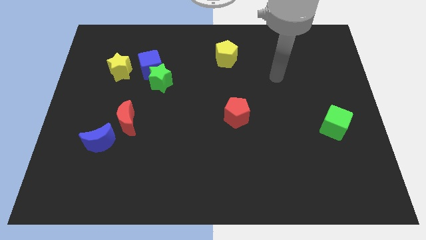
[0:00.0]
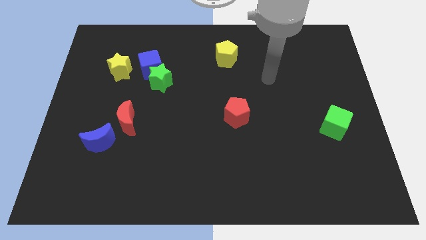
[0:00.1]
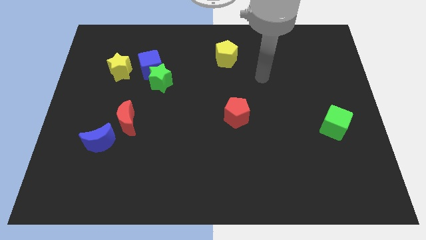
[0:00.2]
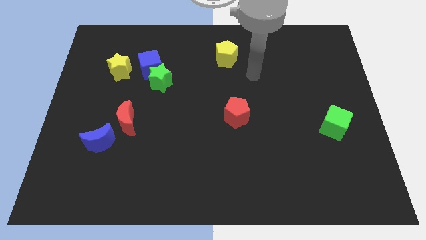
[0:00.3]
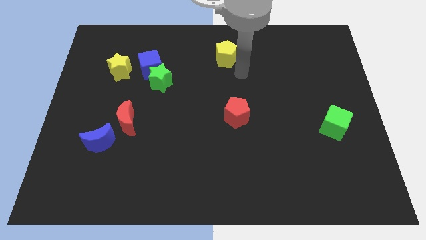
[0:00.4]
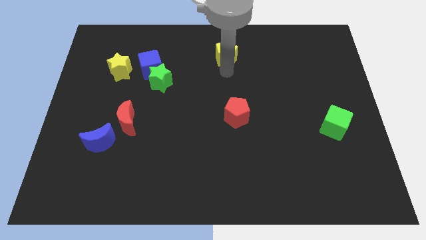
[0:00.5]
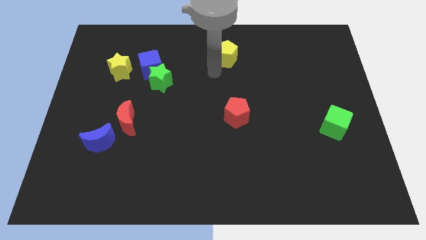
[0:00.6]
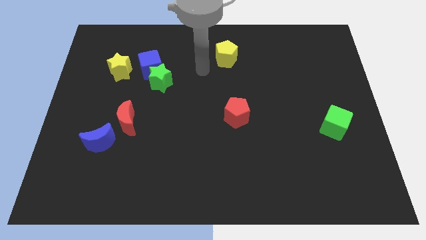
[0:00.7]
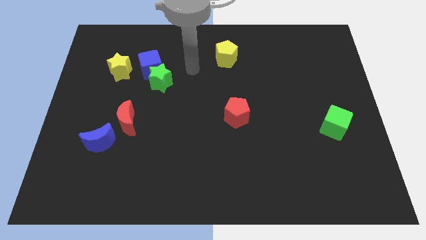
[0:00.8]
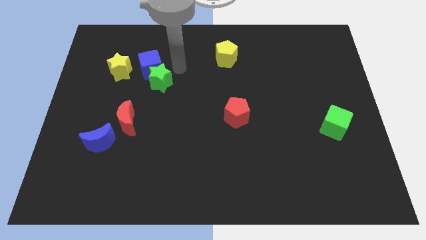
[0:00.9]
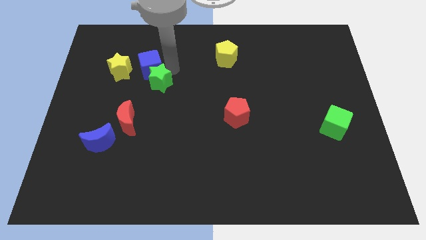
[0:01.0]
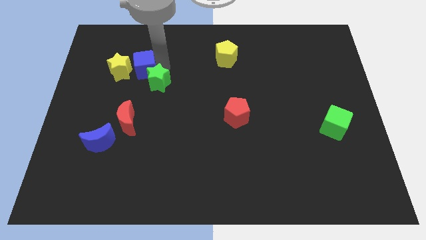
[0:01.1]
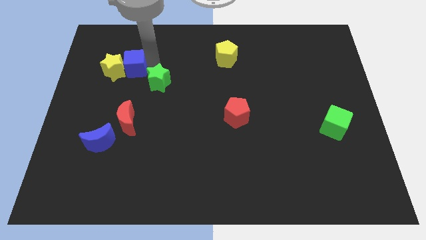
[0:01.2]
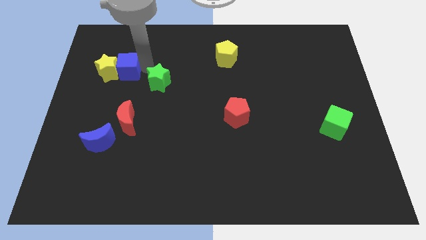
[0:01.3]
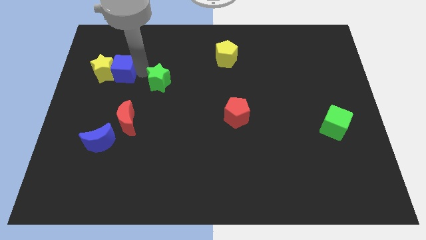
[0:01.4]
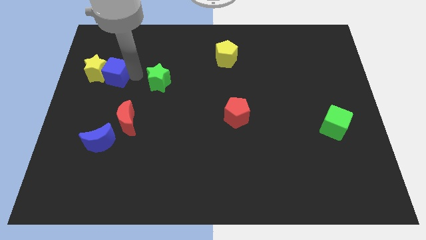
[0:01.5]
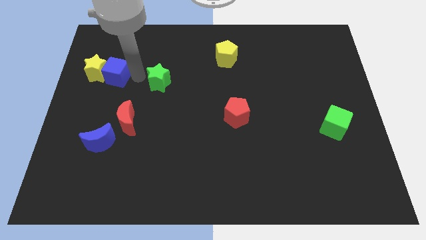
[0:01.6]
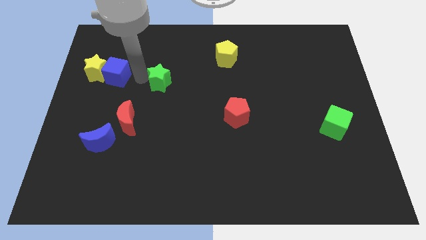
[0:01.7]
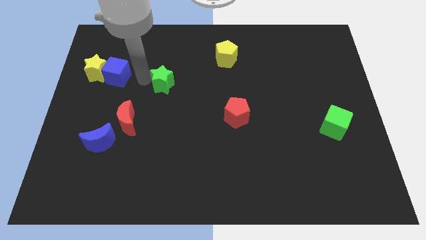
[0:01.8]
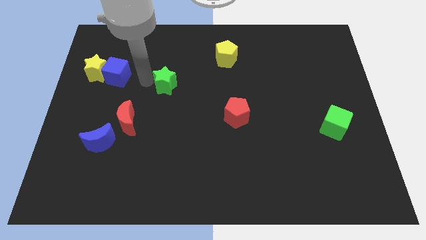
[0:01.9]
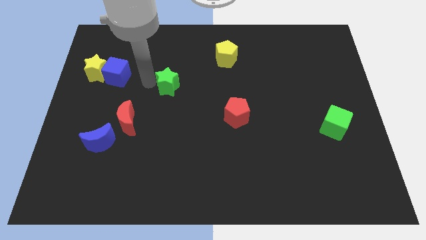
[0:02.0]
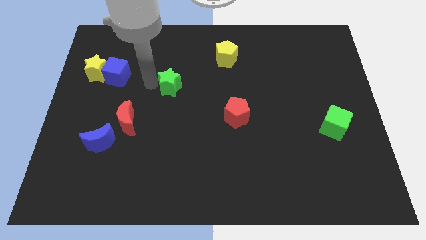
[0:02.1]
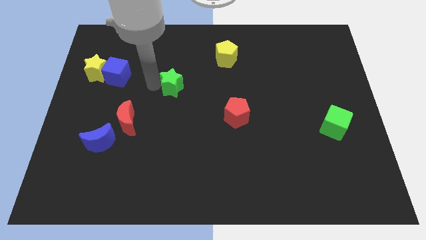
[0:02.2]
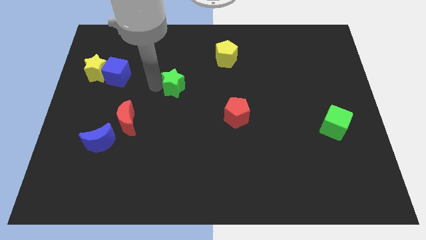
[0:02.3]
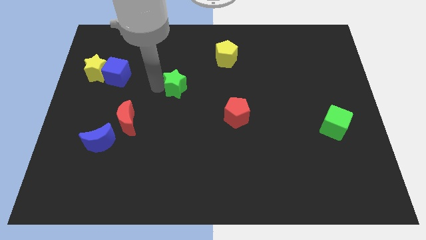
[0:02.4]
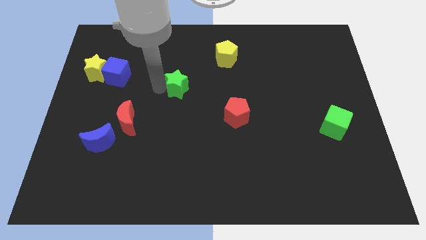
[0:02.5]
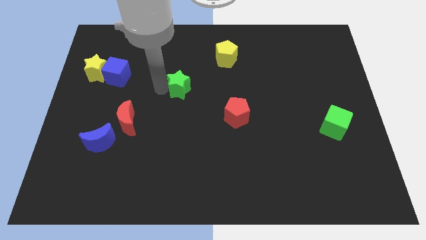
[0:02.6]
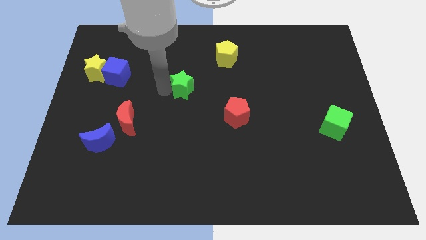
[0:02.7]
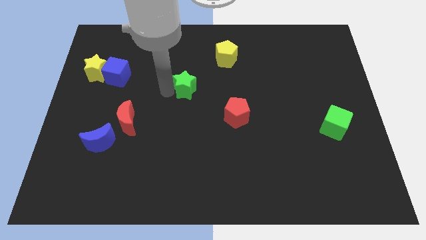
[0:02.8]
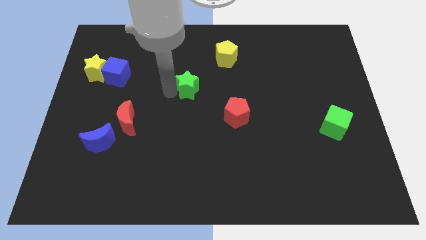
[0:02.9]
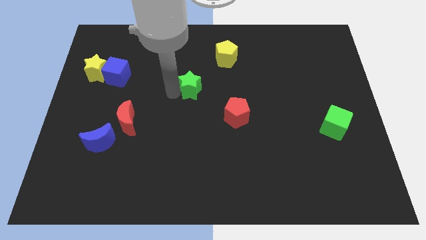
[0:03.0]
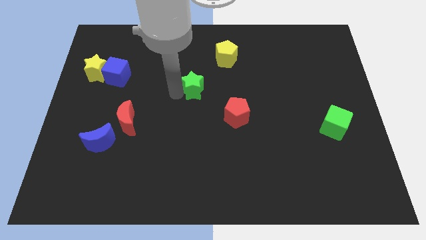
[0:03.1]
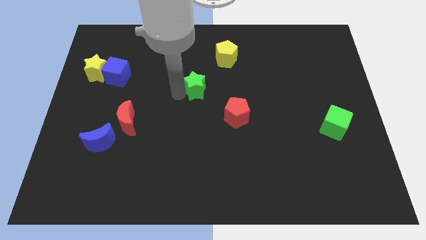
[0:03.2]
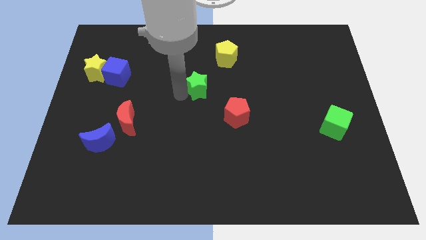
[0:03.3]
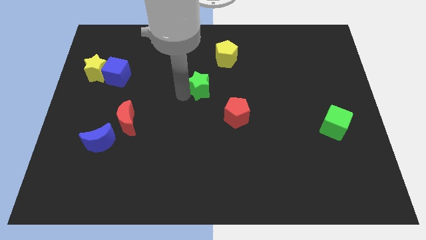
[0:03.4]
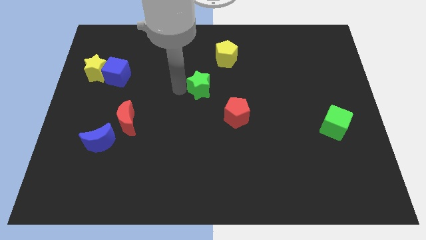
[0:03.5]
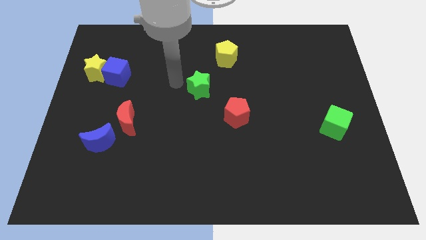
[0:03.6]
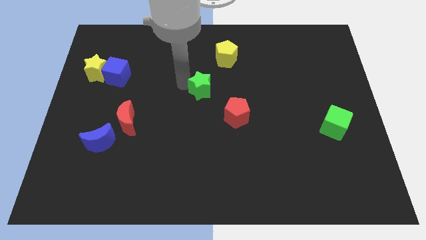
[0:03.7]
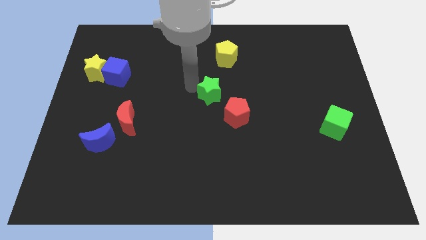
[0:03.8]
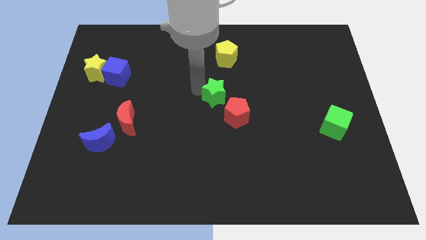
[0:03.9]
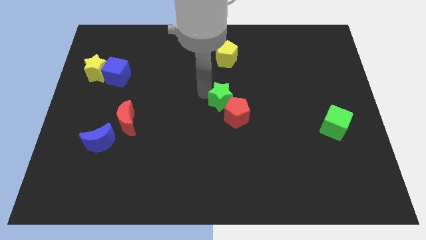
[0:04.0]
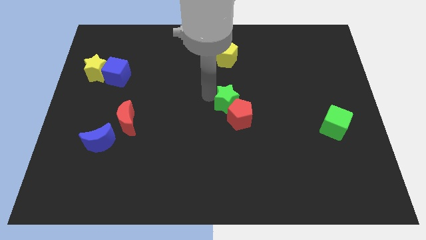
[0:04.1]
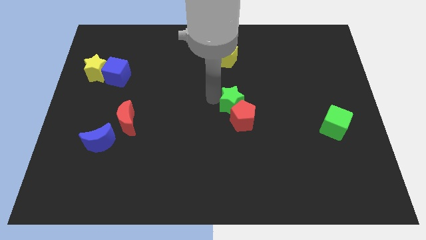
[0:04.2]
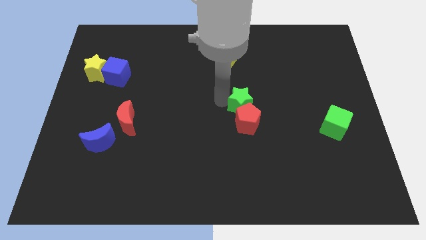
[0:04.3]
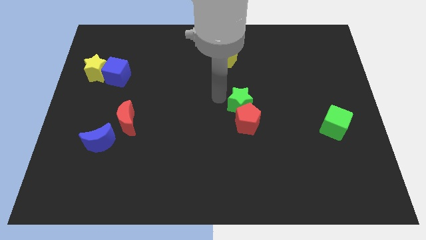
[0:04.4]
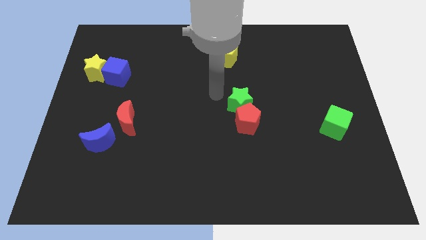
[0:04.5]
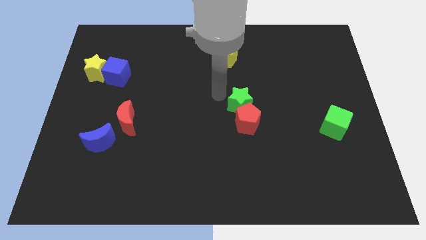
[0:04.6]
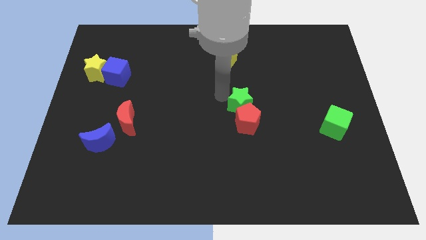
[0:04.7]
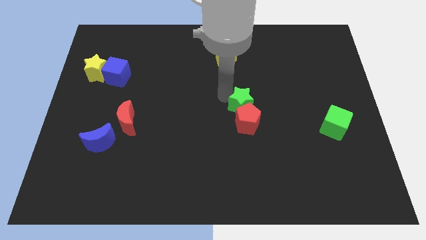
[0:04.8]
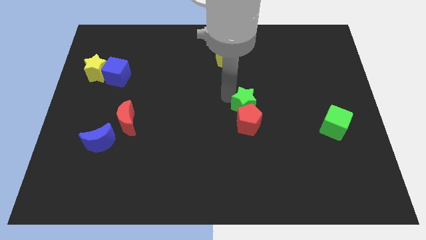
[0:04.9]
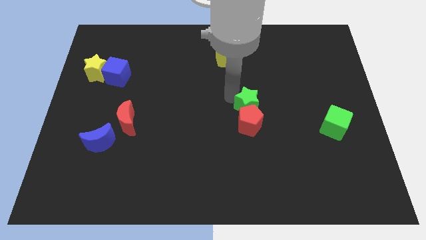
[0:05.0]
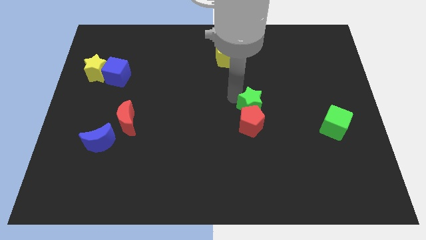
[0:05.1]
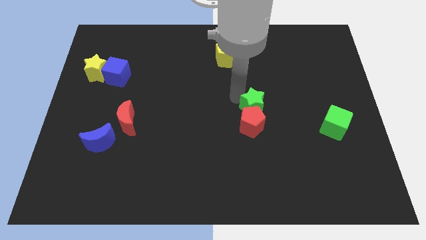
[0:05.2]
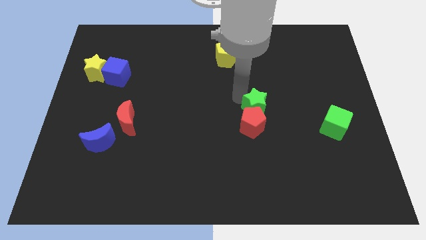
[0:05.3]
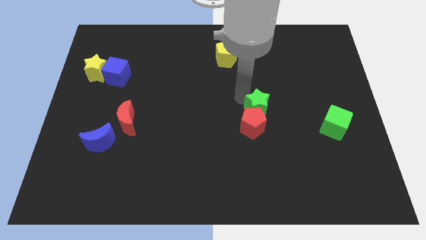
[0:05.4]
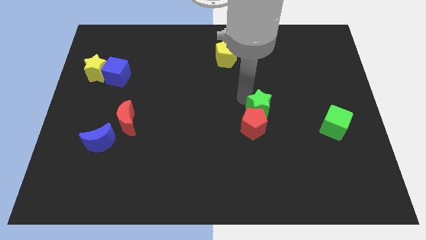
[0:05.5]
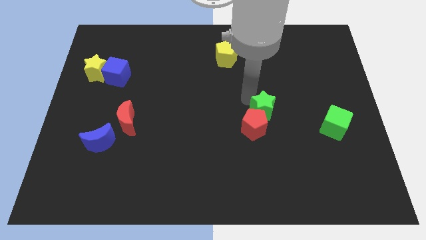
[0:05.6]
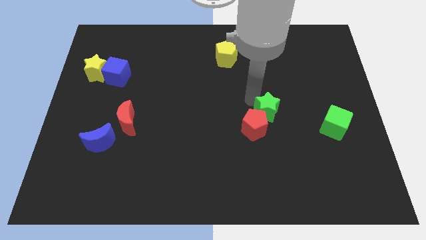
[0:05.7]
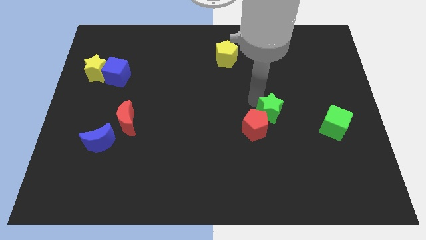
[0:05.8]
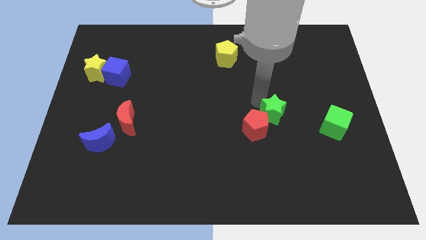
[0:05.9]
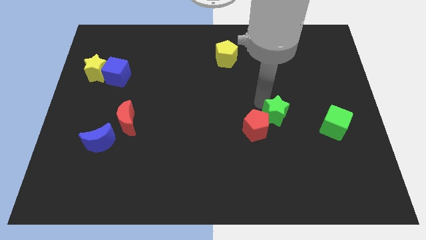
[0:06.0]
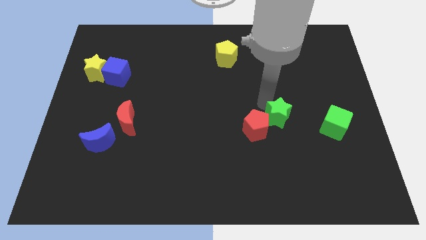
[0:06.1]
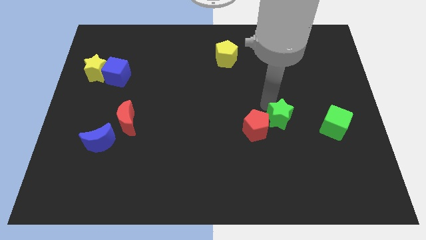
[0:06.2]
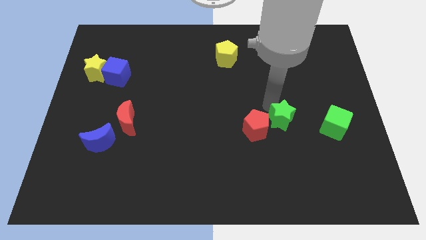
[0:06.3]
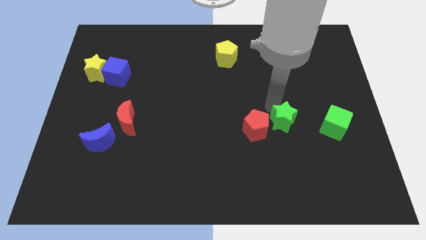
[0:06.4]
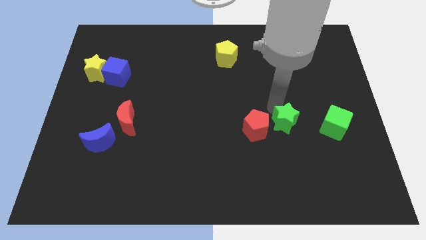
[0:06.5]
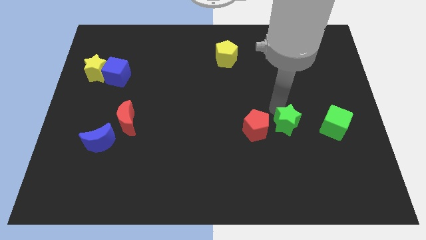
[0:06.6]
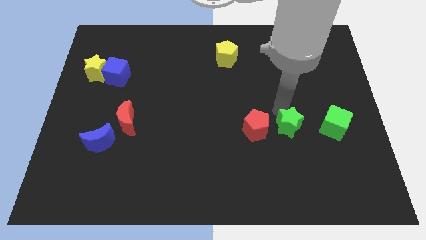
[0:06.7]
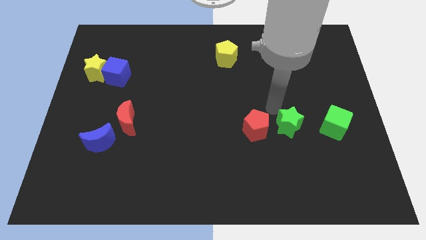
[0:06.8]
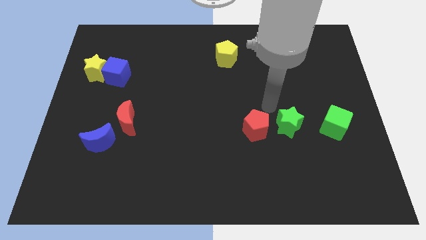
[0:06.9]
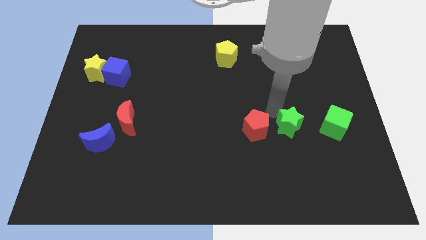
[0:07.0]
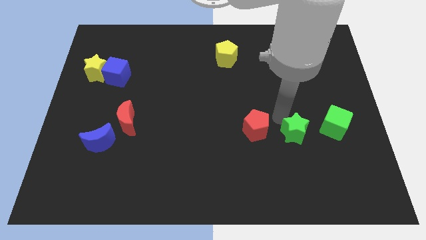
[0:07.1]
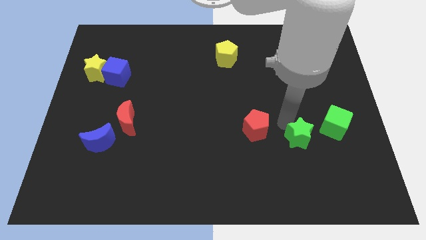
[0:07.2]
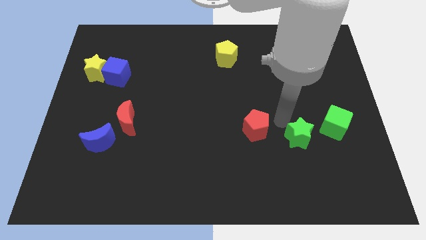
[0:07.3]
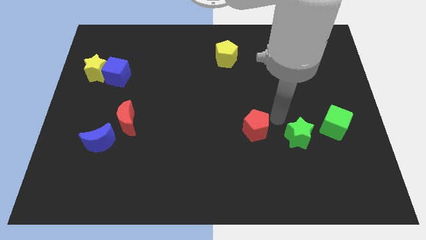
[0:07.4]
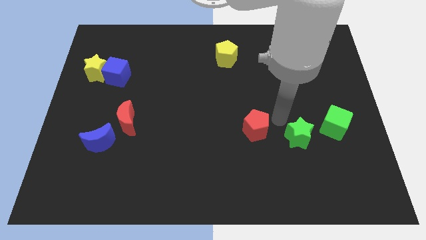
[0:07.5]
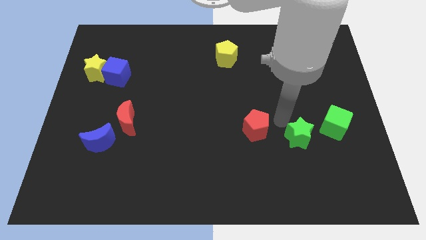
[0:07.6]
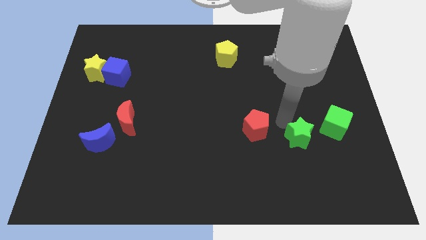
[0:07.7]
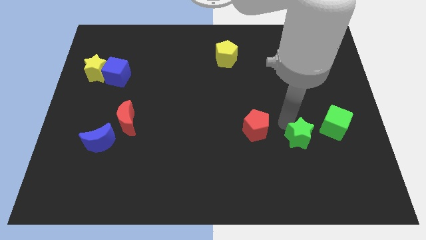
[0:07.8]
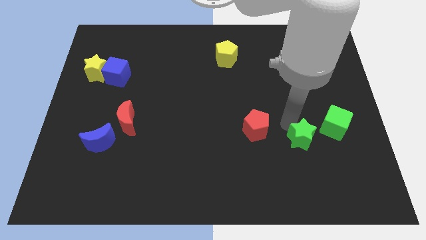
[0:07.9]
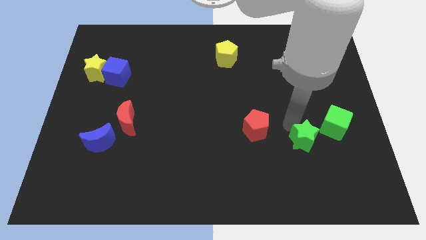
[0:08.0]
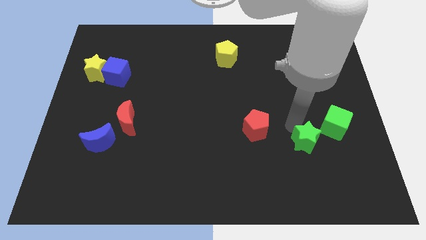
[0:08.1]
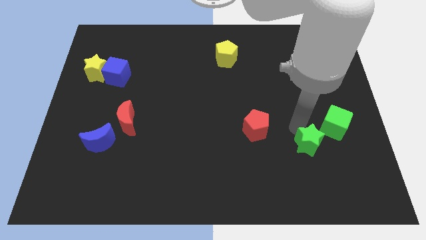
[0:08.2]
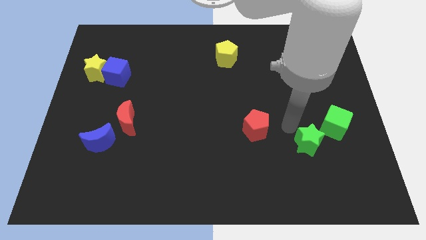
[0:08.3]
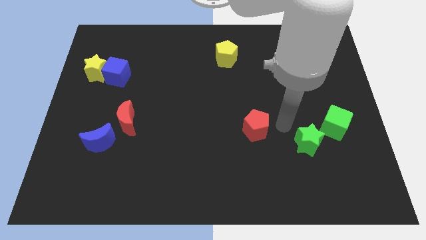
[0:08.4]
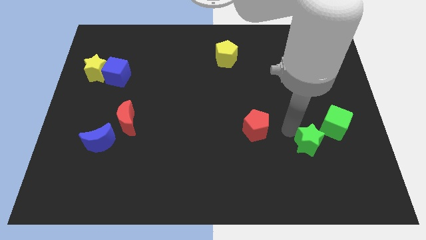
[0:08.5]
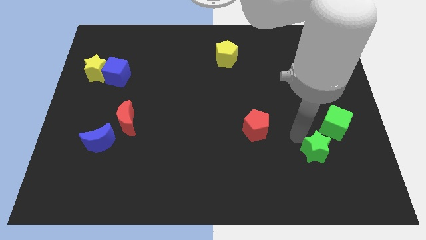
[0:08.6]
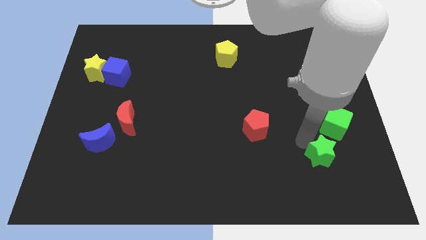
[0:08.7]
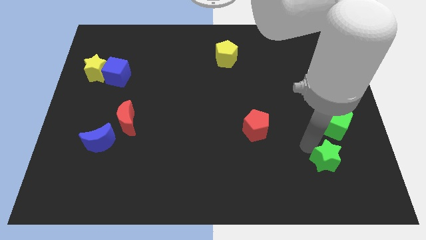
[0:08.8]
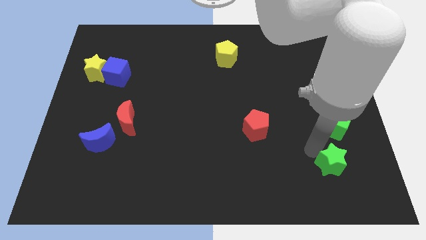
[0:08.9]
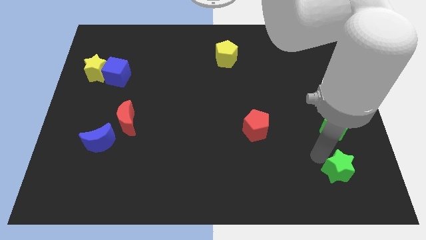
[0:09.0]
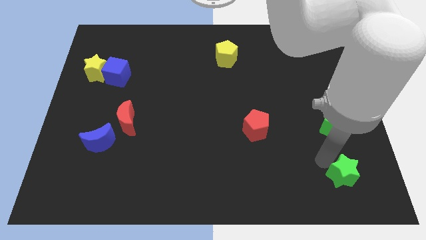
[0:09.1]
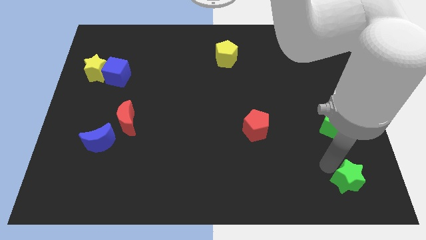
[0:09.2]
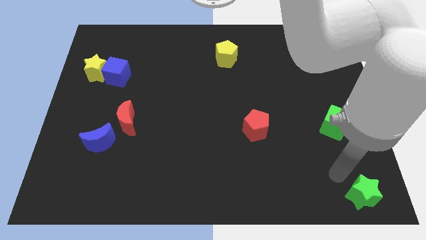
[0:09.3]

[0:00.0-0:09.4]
move the green star to the bottom right of the board
